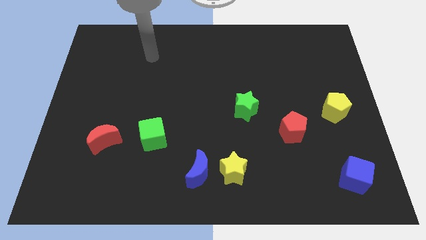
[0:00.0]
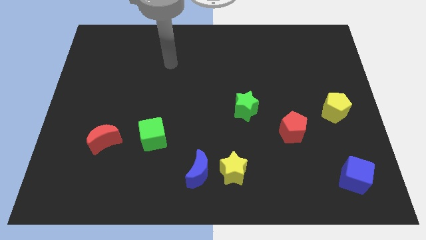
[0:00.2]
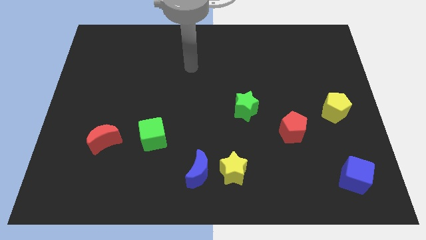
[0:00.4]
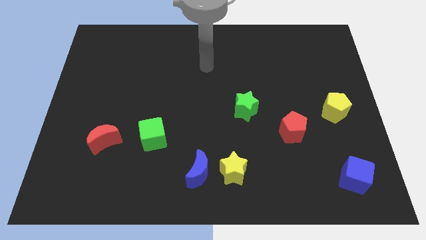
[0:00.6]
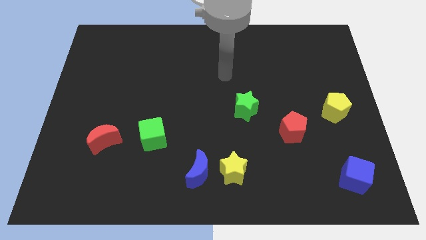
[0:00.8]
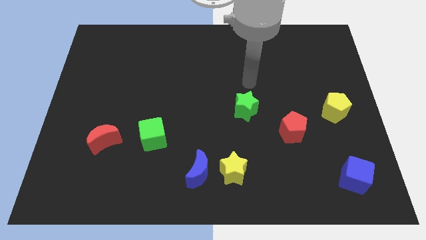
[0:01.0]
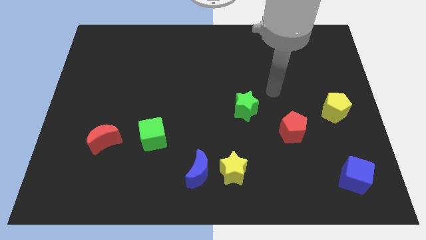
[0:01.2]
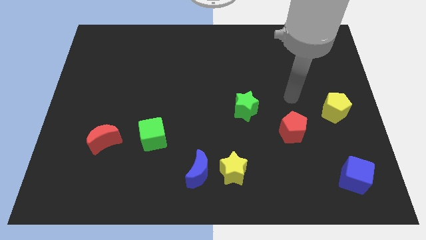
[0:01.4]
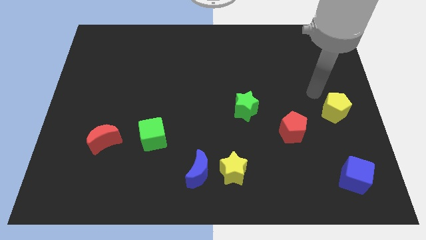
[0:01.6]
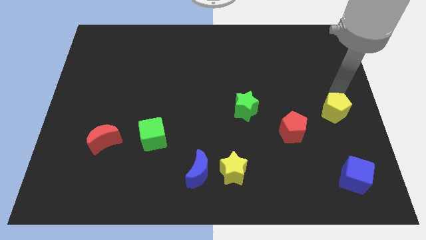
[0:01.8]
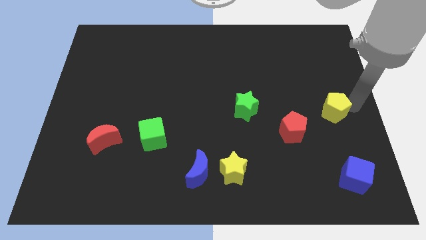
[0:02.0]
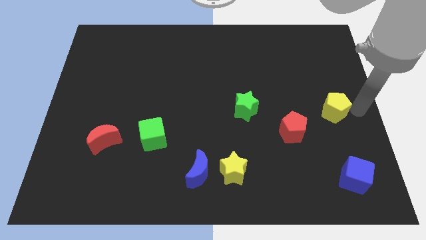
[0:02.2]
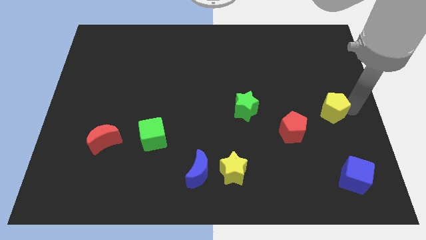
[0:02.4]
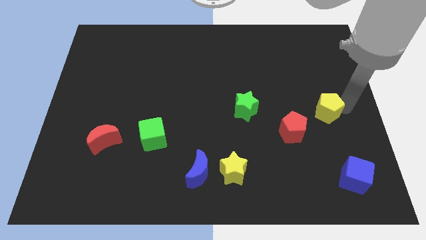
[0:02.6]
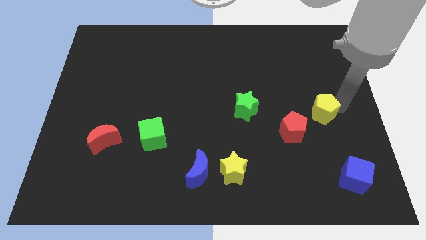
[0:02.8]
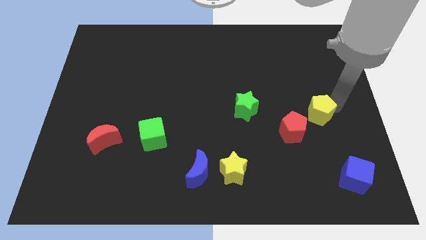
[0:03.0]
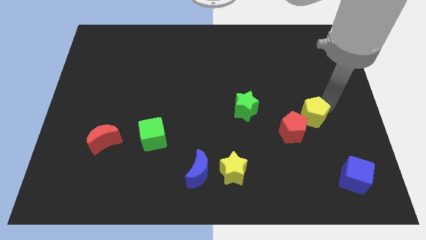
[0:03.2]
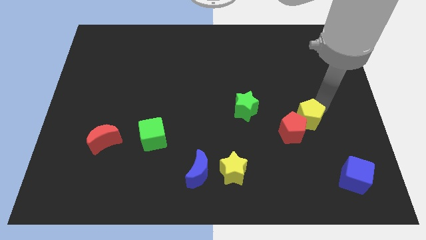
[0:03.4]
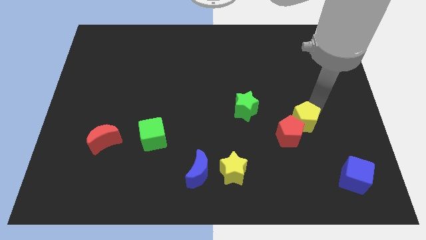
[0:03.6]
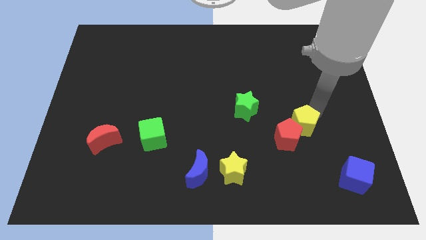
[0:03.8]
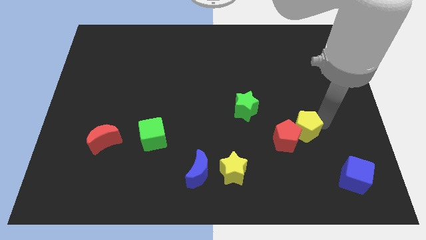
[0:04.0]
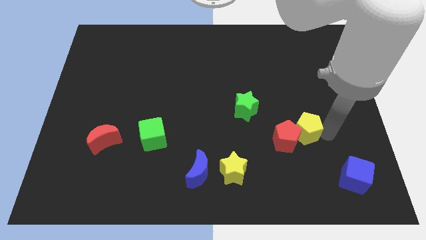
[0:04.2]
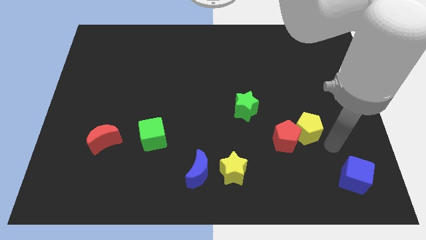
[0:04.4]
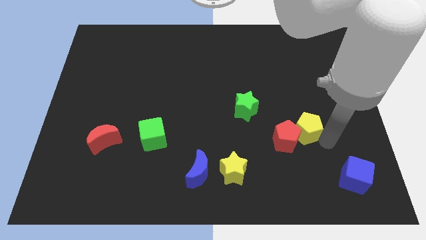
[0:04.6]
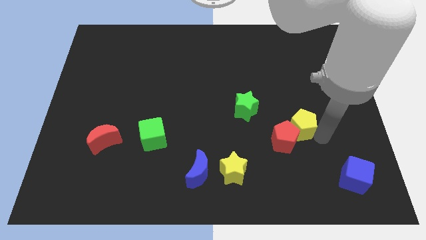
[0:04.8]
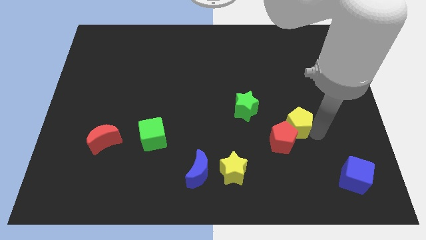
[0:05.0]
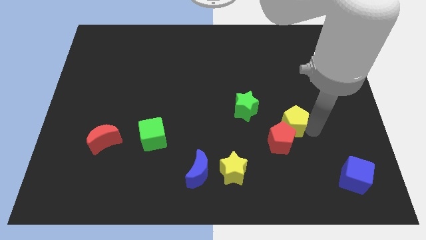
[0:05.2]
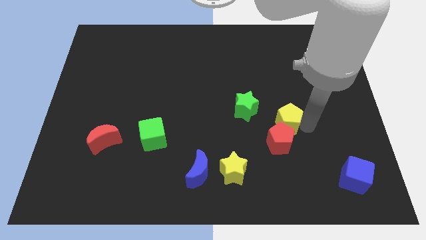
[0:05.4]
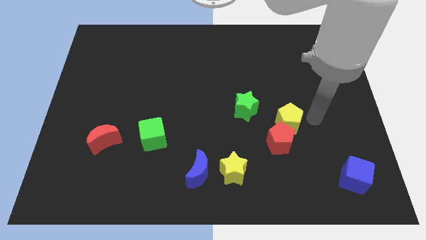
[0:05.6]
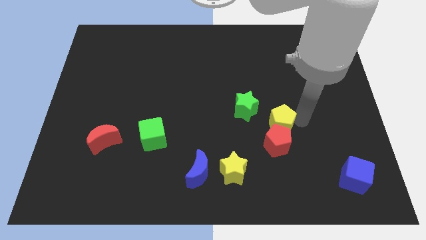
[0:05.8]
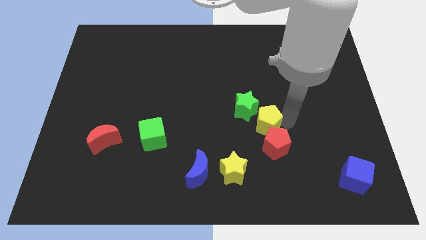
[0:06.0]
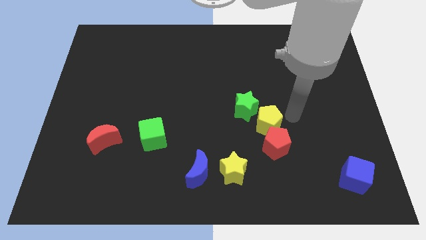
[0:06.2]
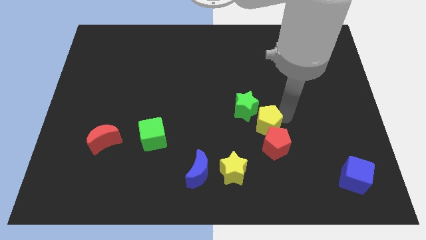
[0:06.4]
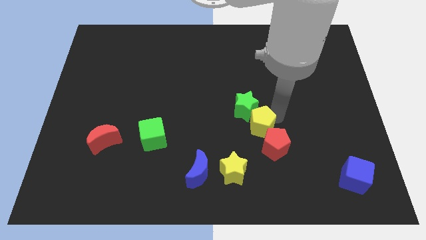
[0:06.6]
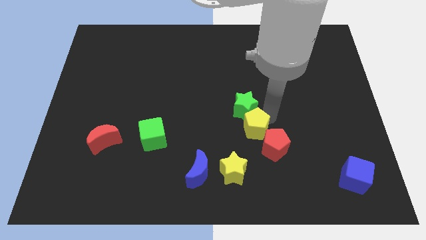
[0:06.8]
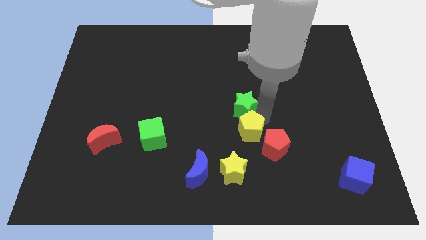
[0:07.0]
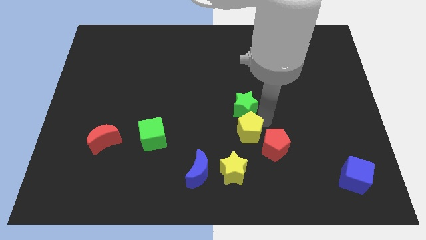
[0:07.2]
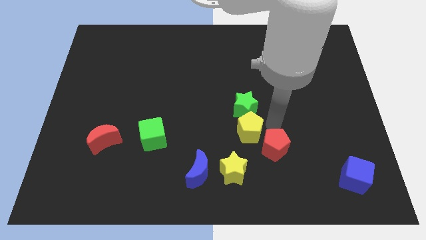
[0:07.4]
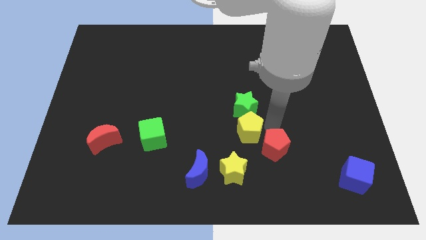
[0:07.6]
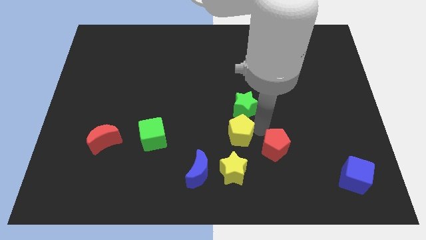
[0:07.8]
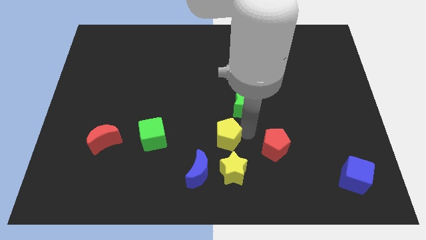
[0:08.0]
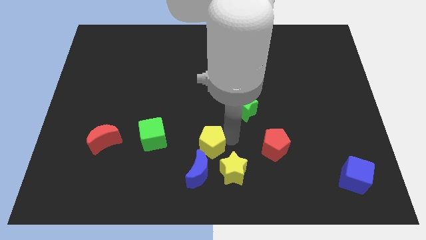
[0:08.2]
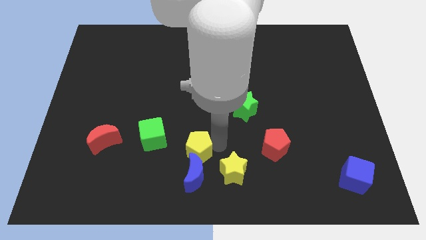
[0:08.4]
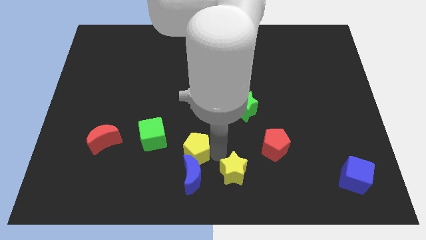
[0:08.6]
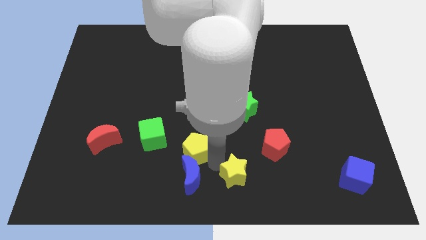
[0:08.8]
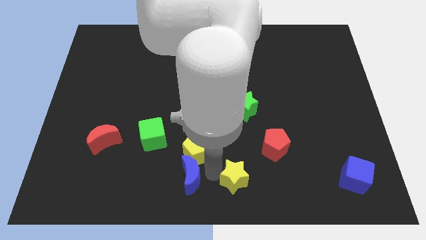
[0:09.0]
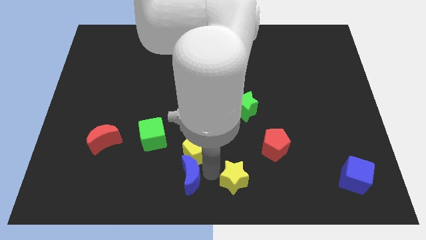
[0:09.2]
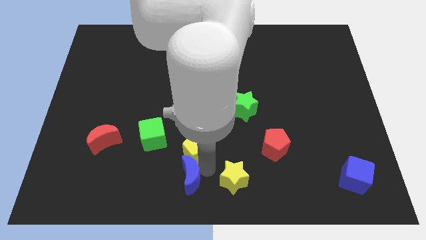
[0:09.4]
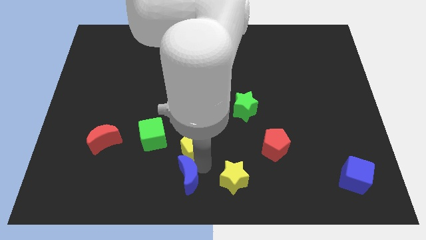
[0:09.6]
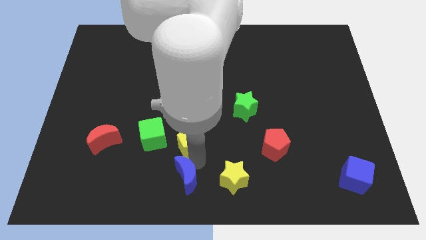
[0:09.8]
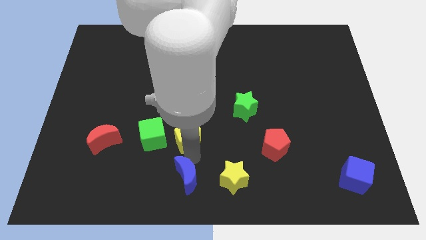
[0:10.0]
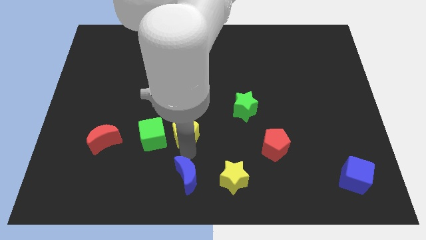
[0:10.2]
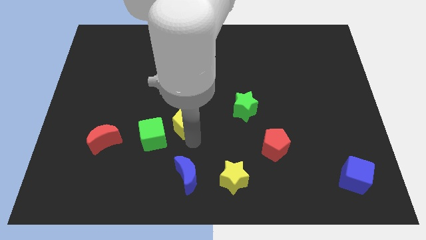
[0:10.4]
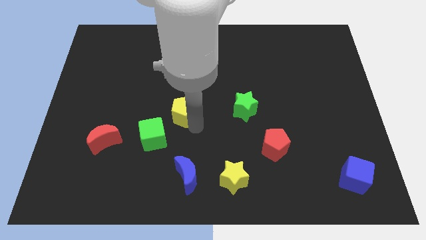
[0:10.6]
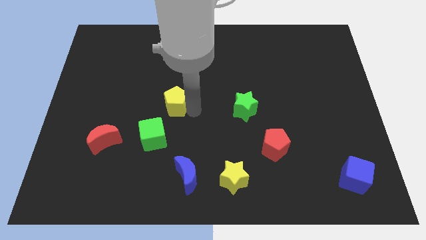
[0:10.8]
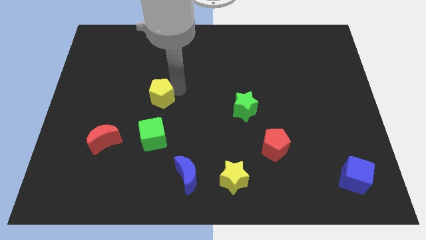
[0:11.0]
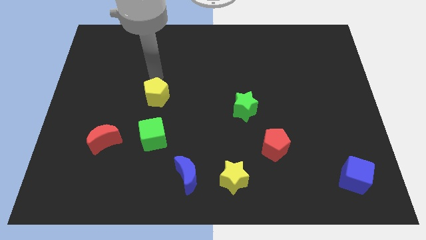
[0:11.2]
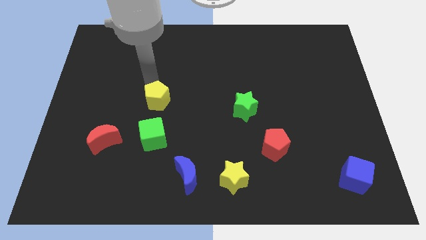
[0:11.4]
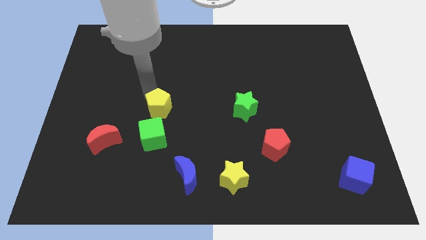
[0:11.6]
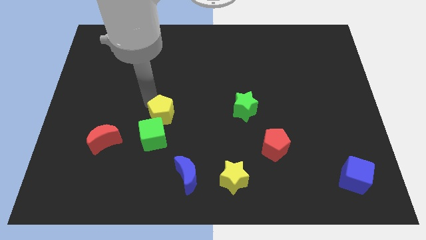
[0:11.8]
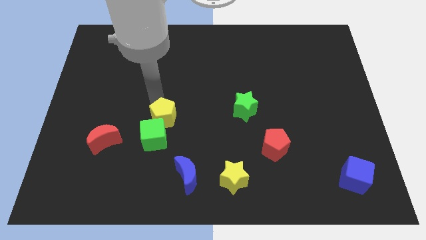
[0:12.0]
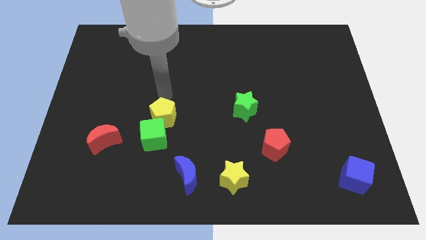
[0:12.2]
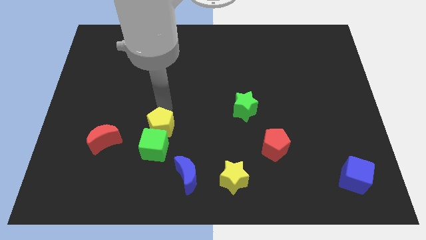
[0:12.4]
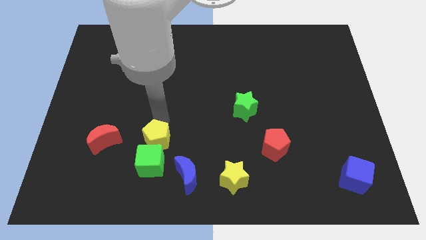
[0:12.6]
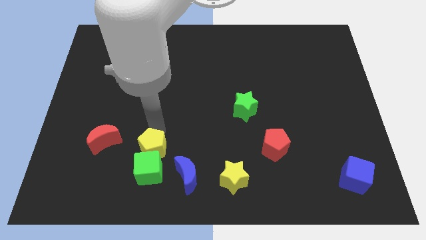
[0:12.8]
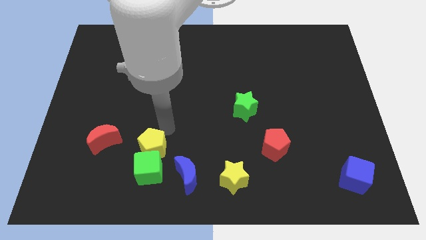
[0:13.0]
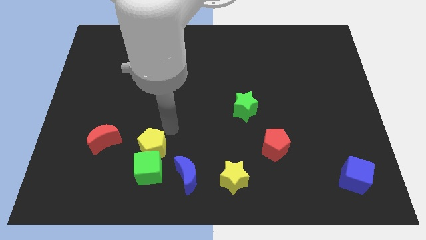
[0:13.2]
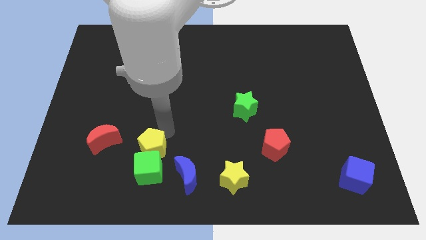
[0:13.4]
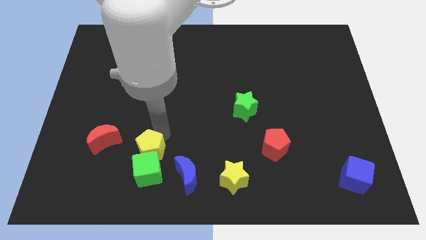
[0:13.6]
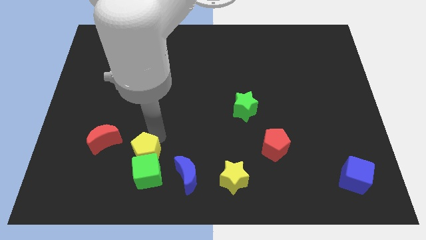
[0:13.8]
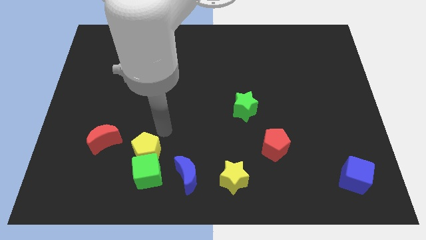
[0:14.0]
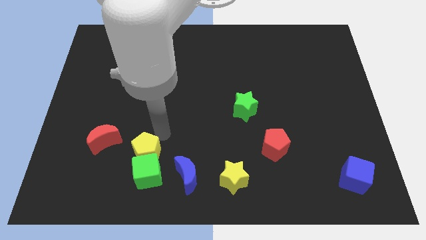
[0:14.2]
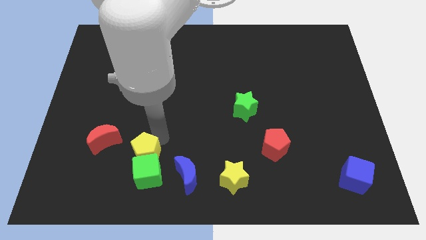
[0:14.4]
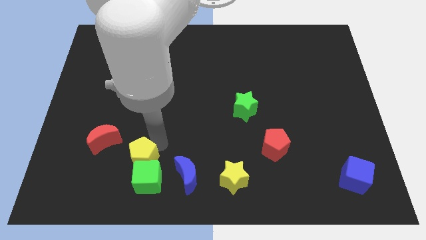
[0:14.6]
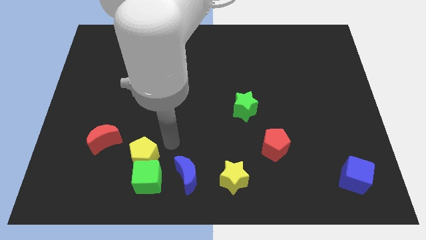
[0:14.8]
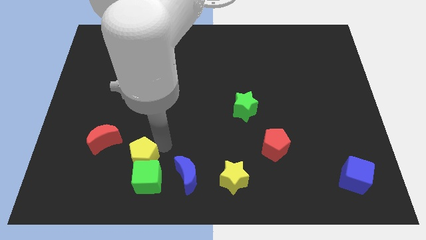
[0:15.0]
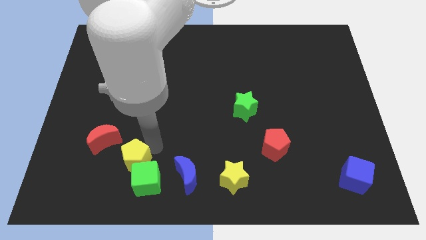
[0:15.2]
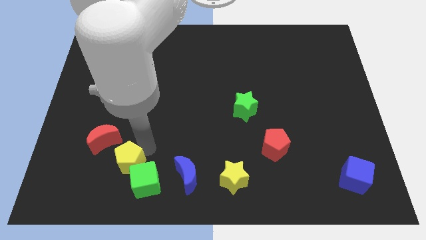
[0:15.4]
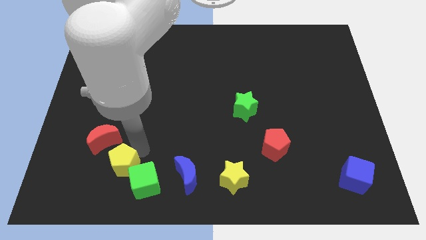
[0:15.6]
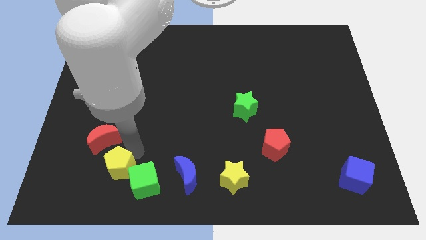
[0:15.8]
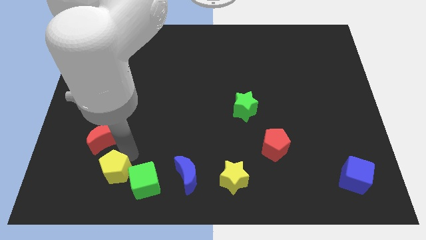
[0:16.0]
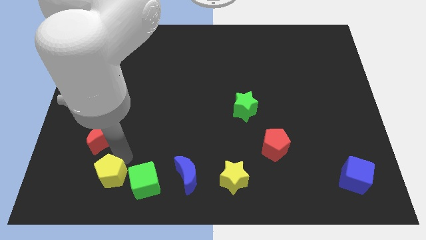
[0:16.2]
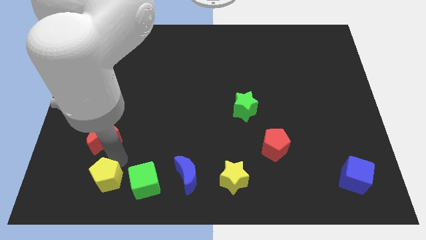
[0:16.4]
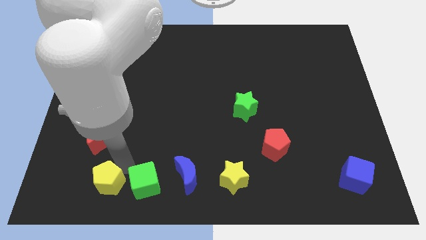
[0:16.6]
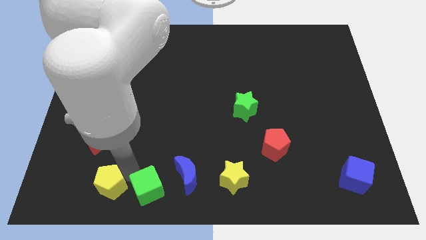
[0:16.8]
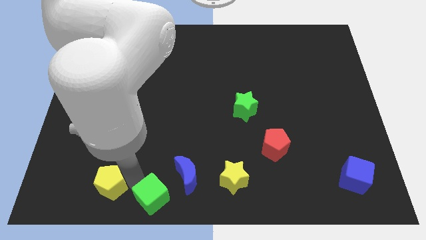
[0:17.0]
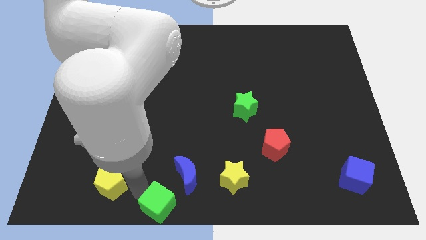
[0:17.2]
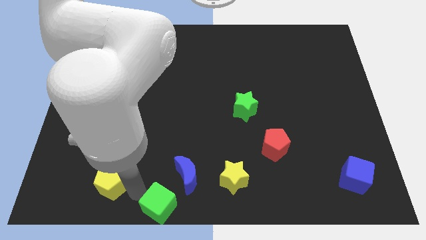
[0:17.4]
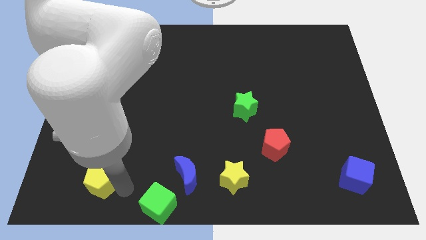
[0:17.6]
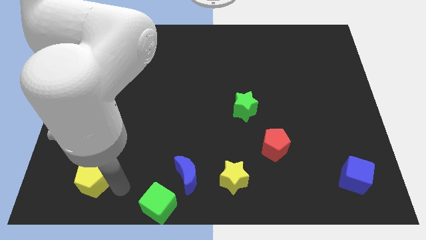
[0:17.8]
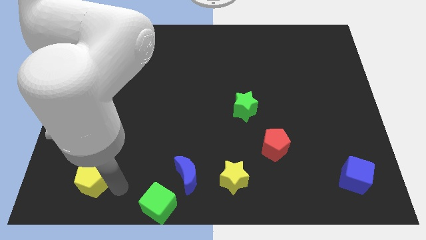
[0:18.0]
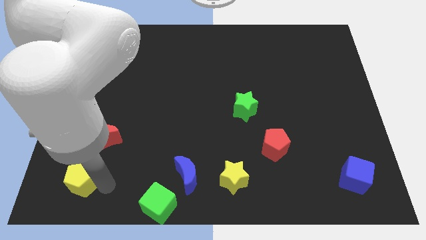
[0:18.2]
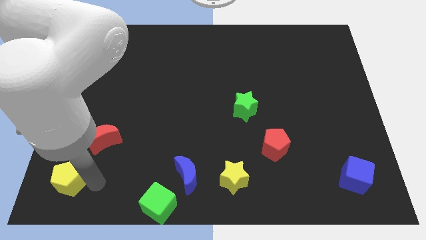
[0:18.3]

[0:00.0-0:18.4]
slide the yellow pentagon to the bottom left corner
